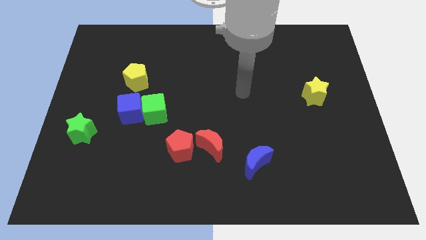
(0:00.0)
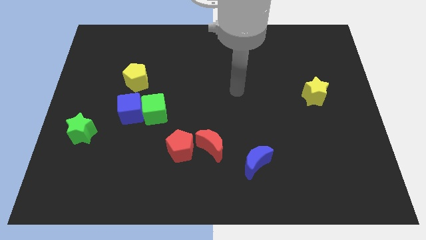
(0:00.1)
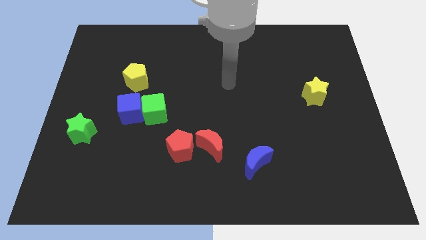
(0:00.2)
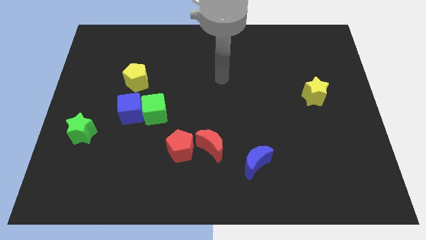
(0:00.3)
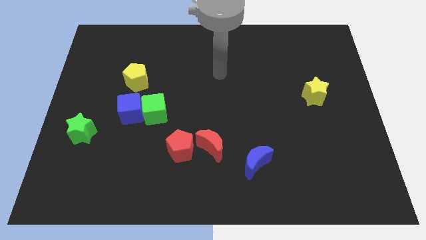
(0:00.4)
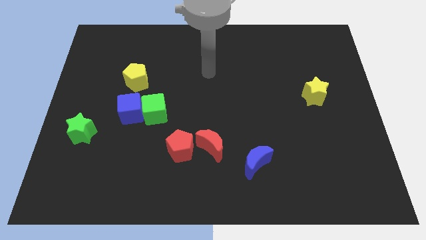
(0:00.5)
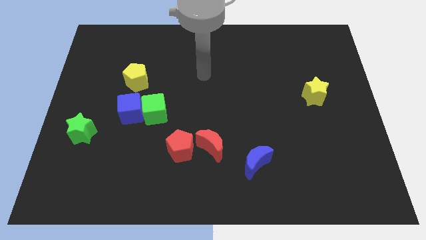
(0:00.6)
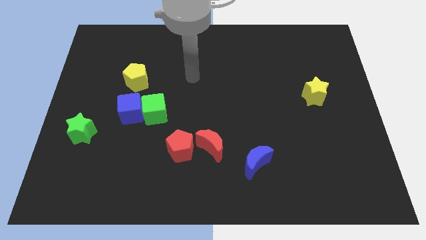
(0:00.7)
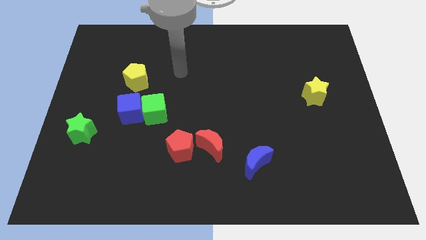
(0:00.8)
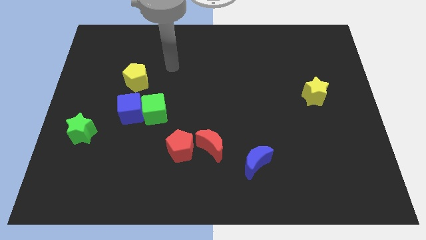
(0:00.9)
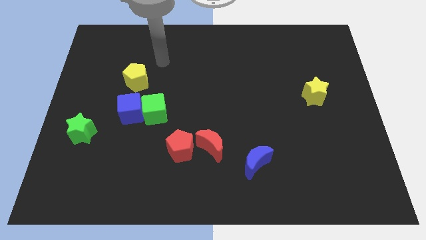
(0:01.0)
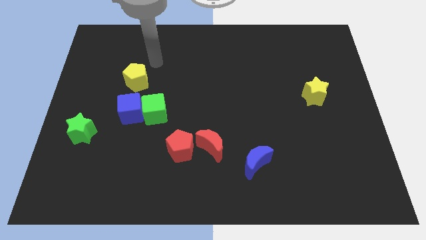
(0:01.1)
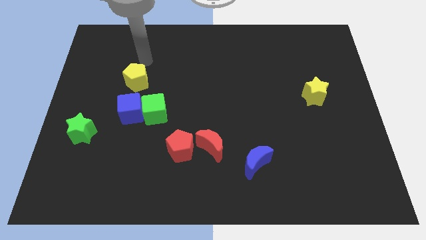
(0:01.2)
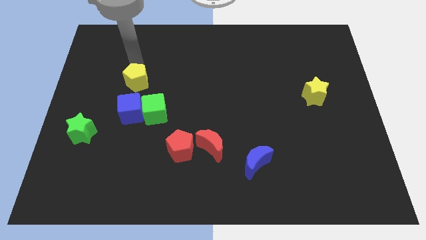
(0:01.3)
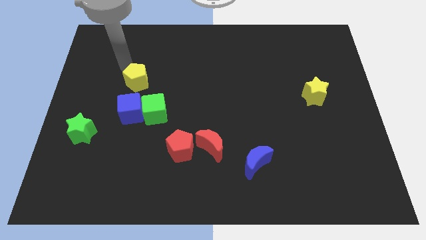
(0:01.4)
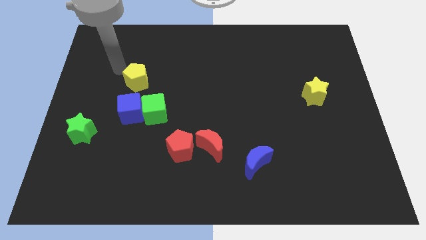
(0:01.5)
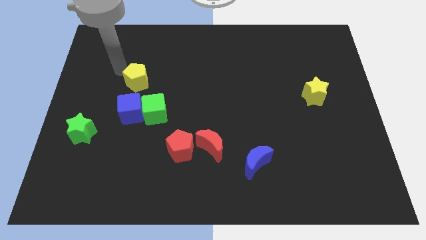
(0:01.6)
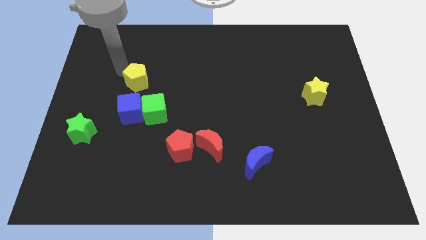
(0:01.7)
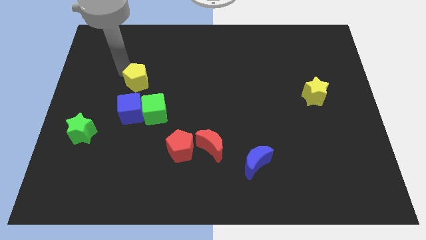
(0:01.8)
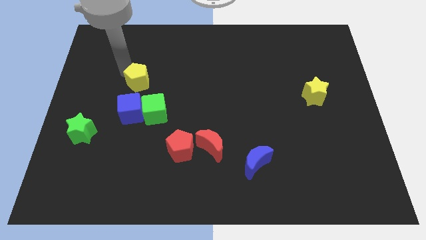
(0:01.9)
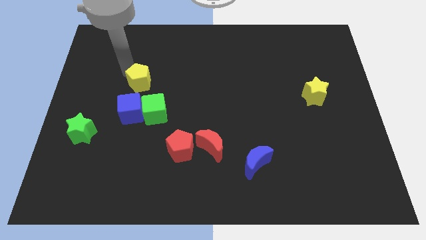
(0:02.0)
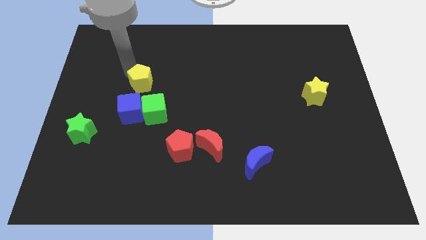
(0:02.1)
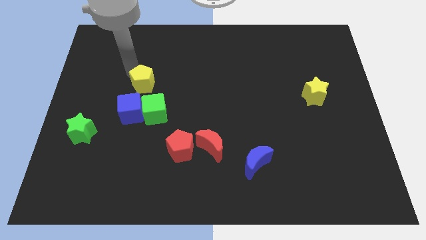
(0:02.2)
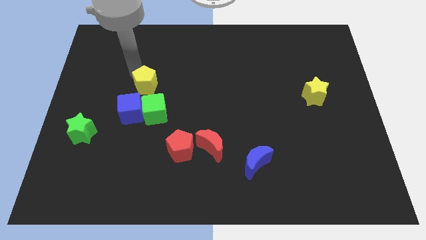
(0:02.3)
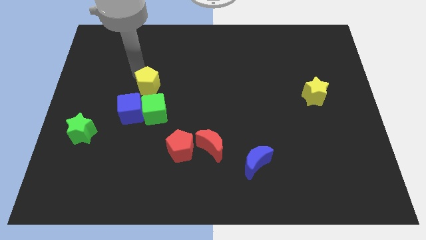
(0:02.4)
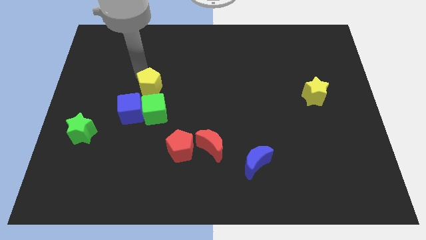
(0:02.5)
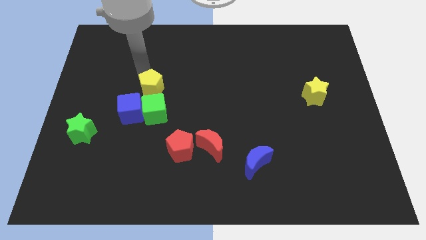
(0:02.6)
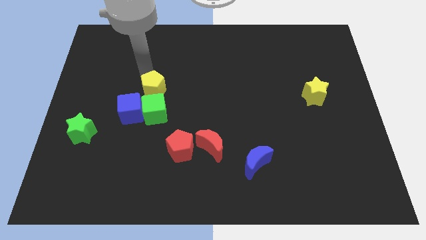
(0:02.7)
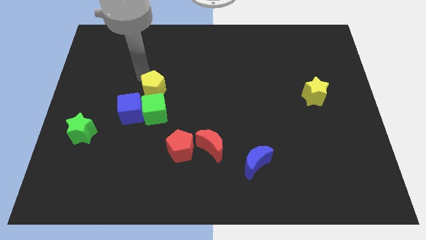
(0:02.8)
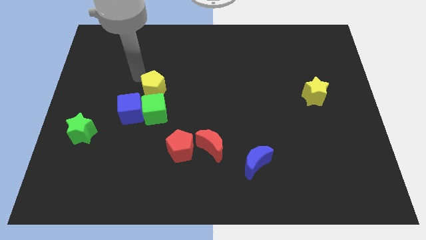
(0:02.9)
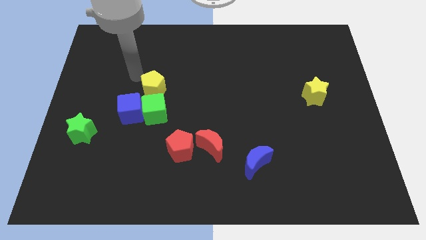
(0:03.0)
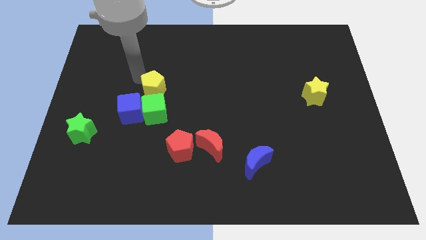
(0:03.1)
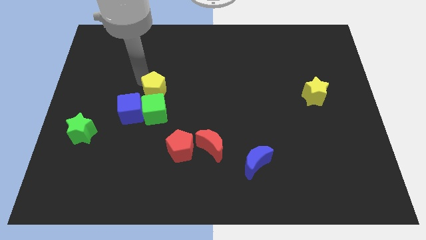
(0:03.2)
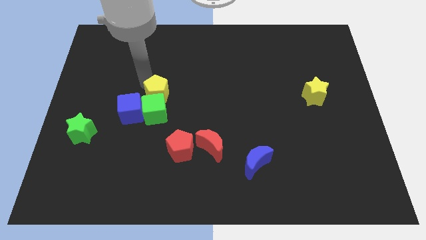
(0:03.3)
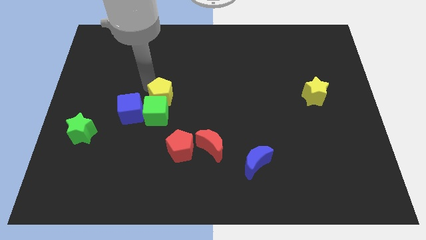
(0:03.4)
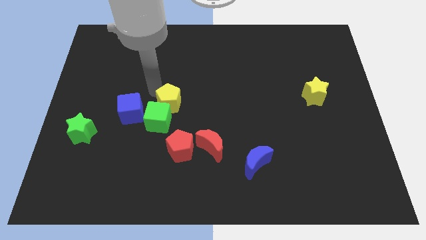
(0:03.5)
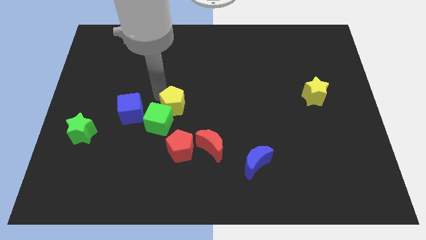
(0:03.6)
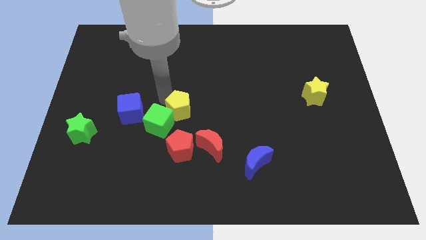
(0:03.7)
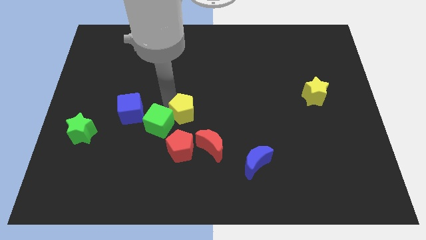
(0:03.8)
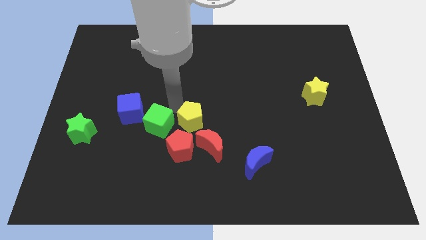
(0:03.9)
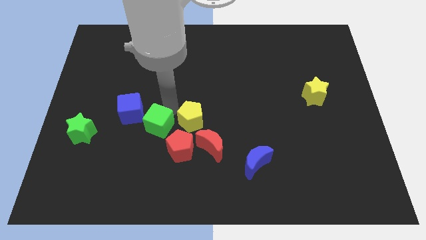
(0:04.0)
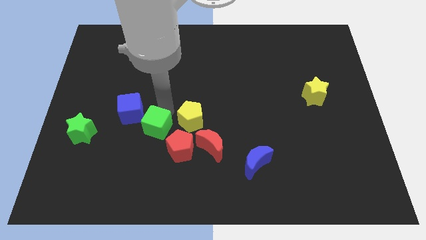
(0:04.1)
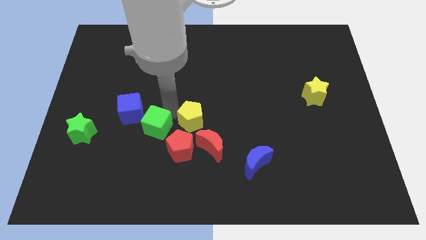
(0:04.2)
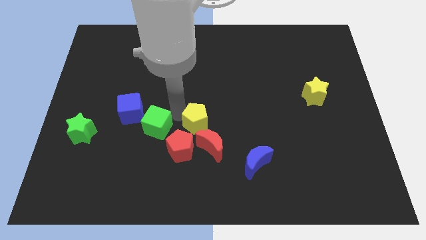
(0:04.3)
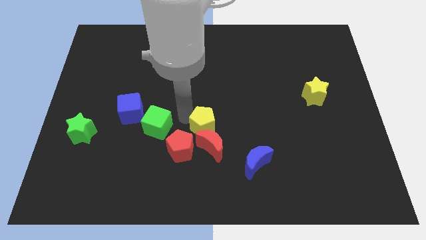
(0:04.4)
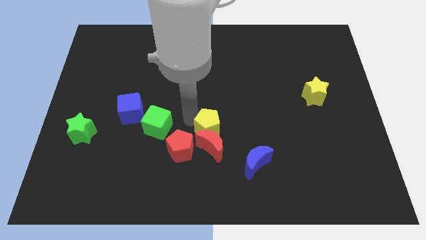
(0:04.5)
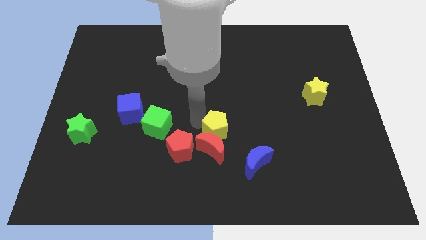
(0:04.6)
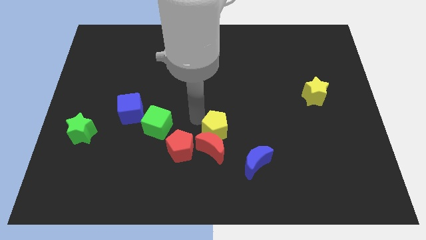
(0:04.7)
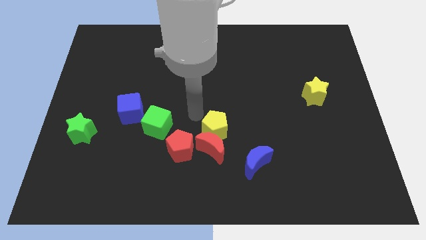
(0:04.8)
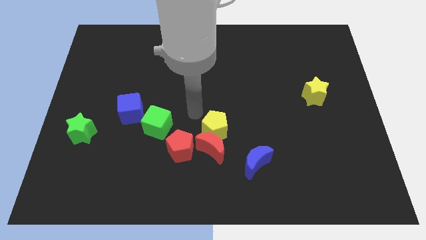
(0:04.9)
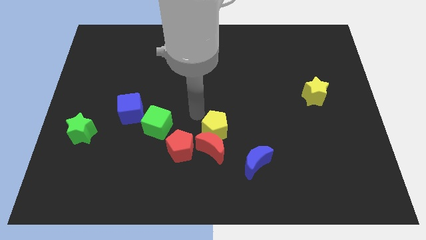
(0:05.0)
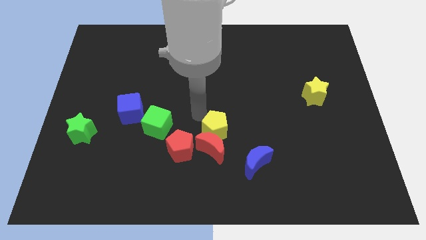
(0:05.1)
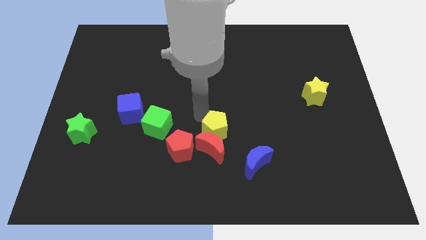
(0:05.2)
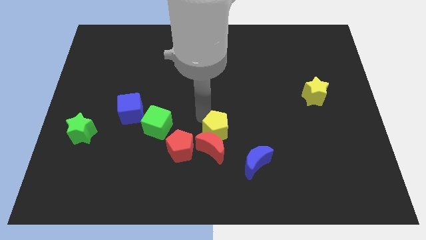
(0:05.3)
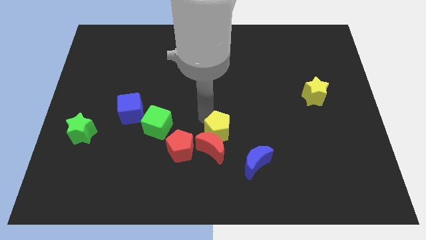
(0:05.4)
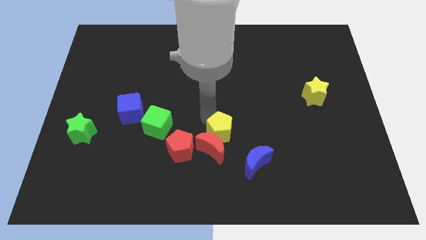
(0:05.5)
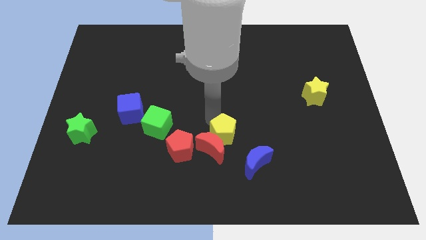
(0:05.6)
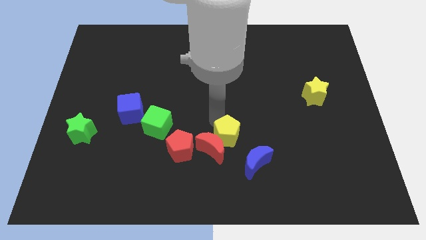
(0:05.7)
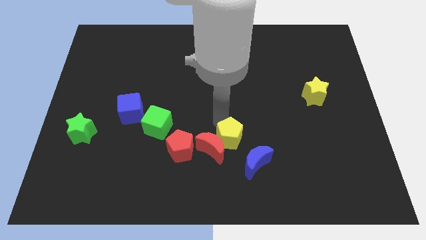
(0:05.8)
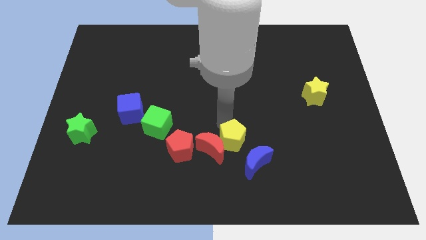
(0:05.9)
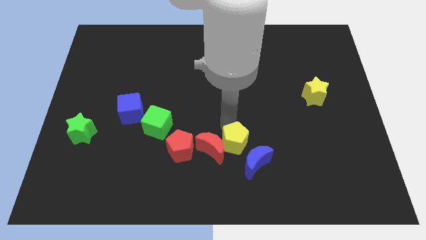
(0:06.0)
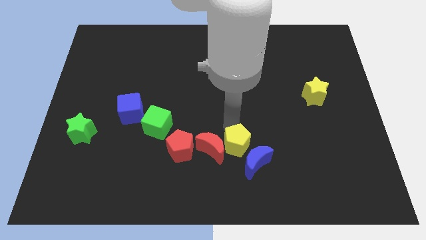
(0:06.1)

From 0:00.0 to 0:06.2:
move the yellow pentagon to the bottom right side of the red moon
